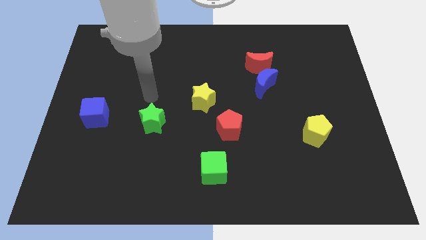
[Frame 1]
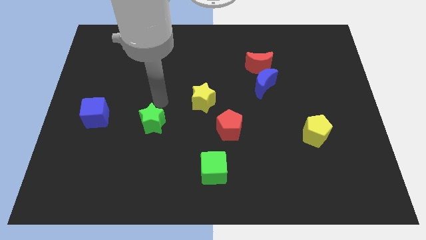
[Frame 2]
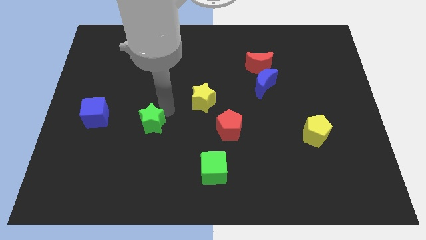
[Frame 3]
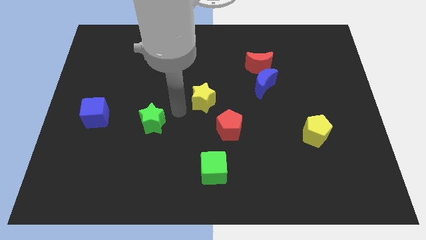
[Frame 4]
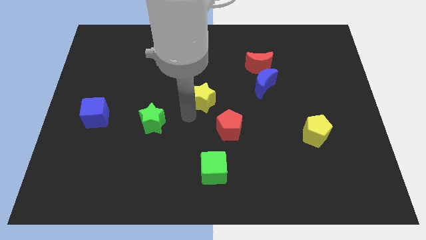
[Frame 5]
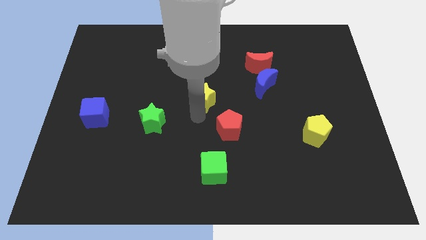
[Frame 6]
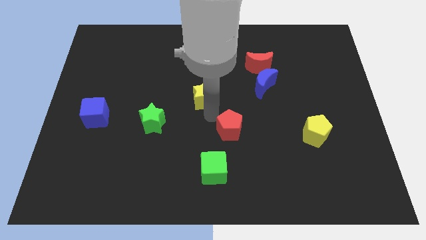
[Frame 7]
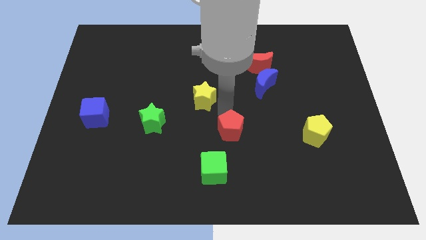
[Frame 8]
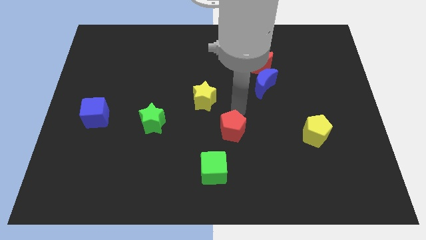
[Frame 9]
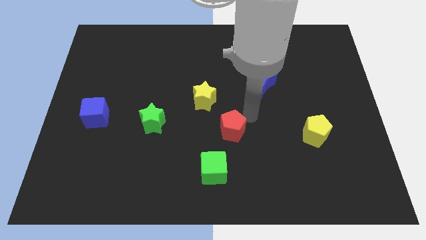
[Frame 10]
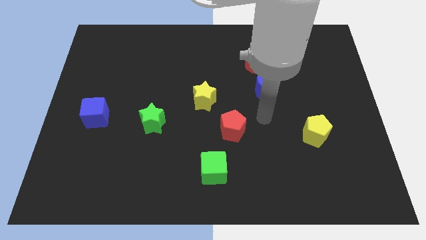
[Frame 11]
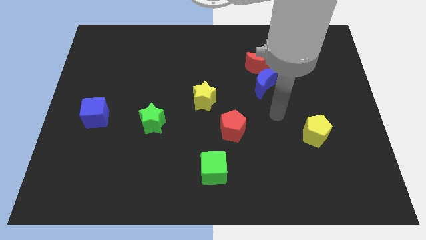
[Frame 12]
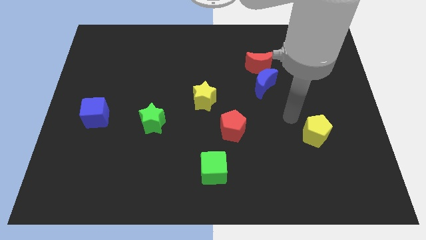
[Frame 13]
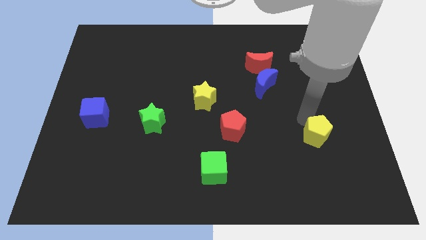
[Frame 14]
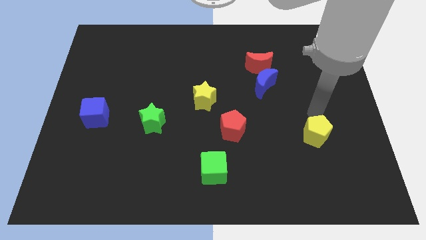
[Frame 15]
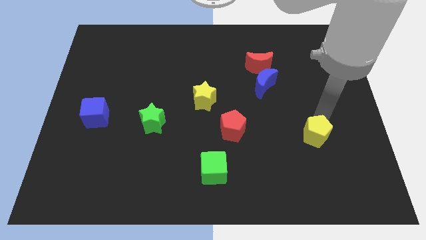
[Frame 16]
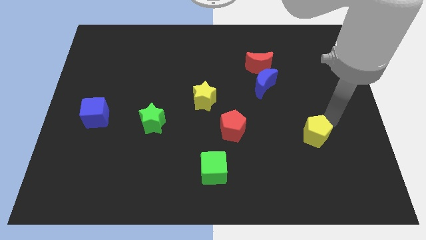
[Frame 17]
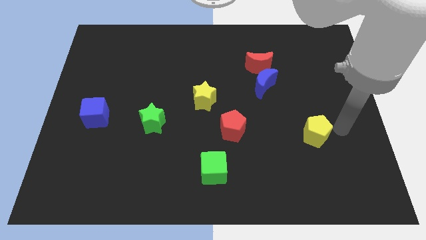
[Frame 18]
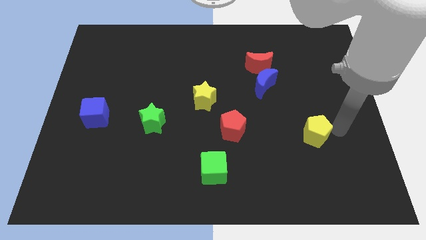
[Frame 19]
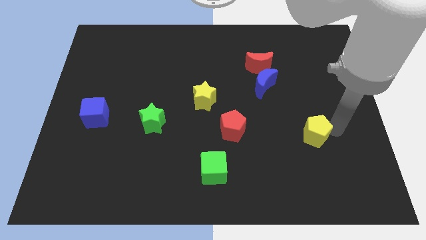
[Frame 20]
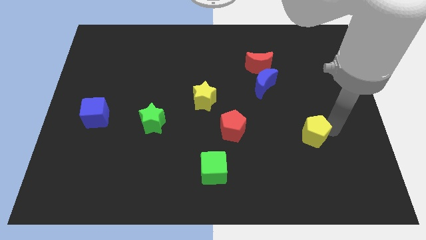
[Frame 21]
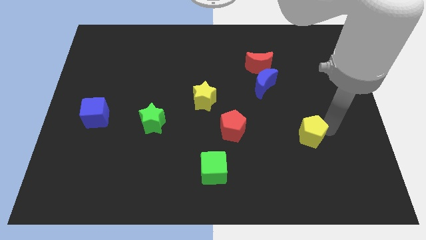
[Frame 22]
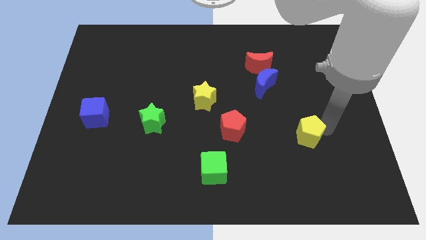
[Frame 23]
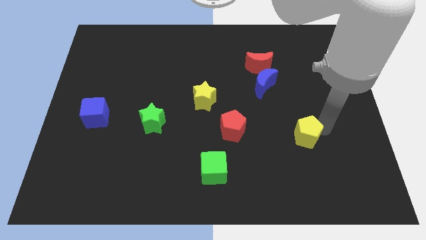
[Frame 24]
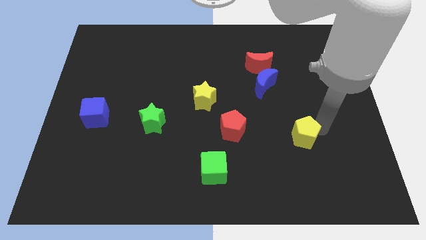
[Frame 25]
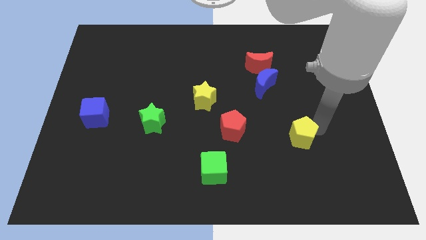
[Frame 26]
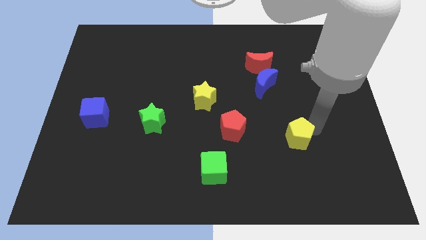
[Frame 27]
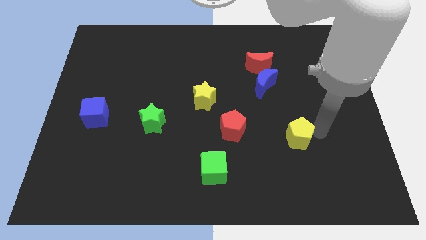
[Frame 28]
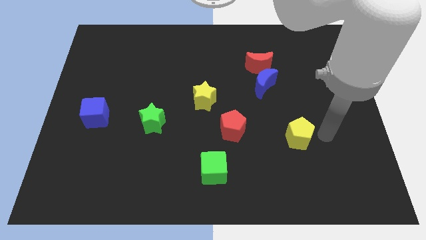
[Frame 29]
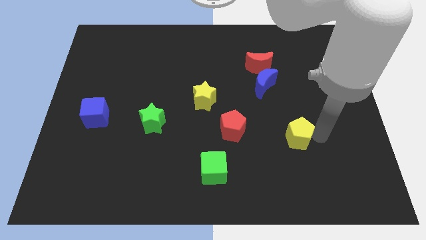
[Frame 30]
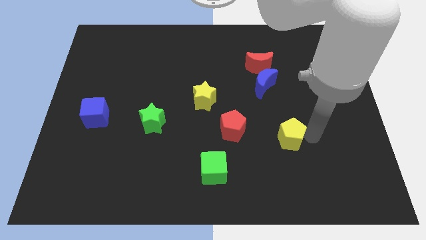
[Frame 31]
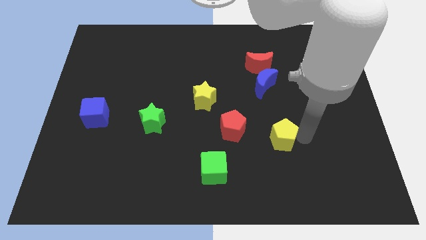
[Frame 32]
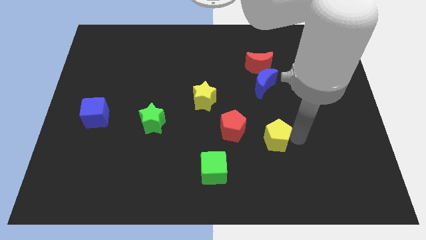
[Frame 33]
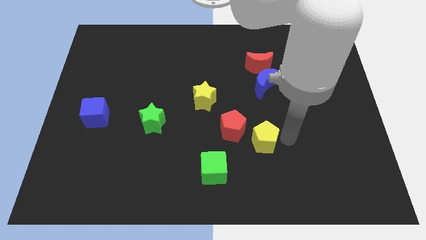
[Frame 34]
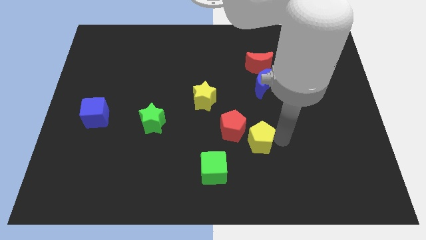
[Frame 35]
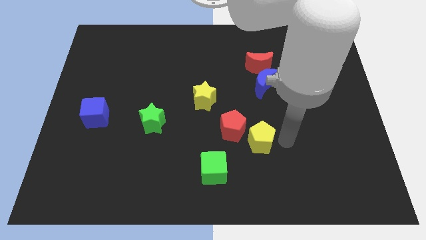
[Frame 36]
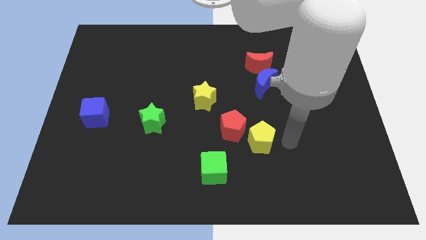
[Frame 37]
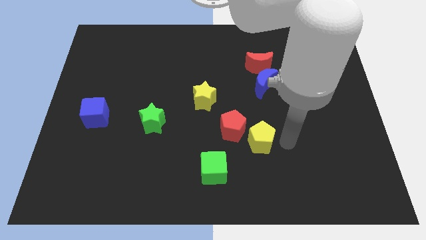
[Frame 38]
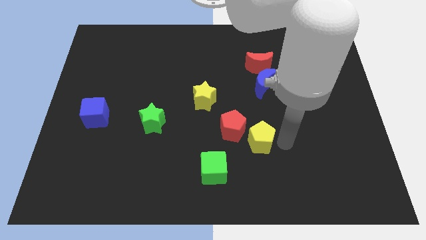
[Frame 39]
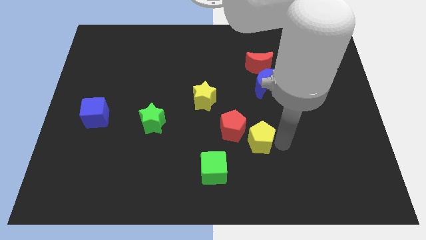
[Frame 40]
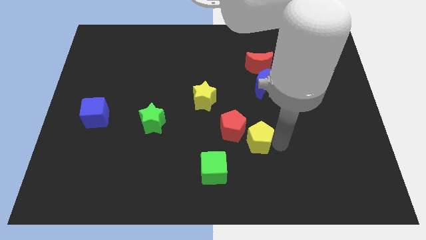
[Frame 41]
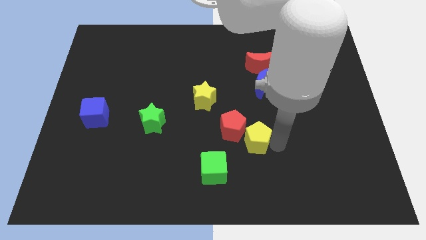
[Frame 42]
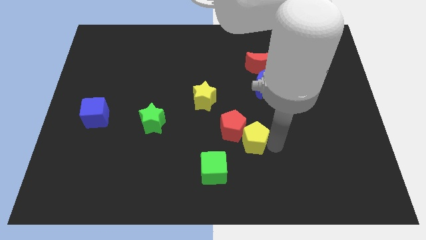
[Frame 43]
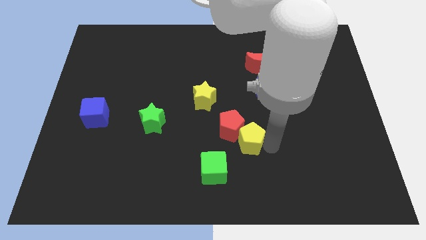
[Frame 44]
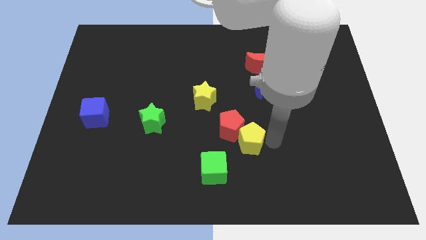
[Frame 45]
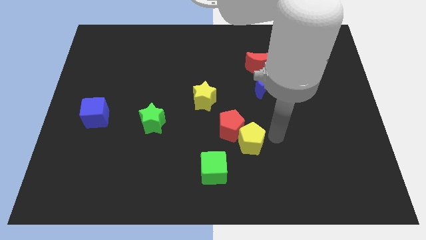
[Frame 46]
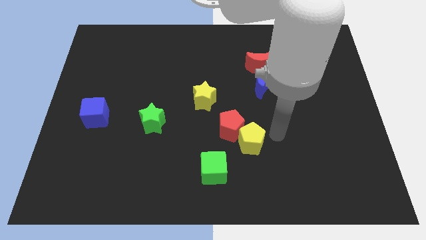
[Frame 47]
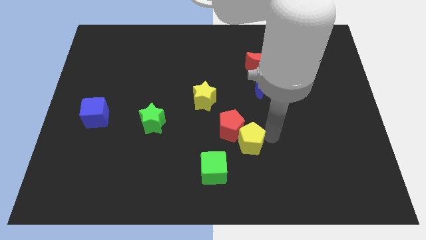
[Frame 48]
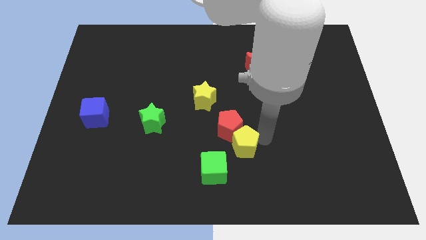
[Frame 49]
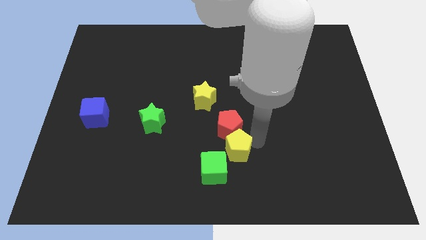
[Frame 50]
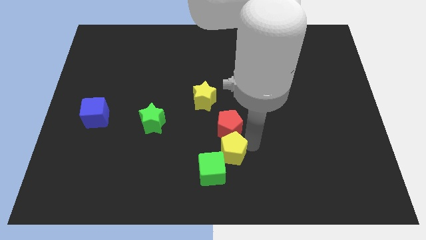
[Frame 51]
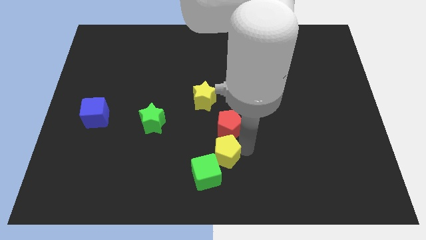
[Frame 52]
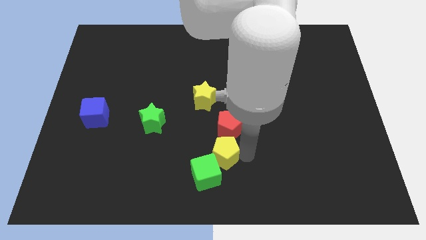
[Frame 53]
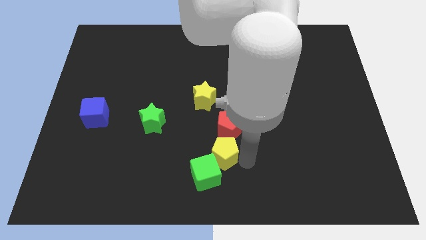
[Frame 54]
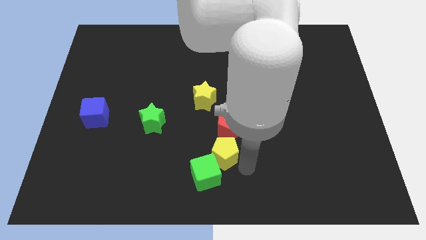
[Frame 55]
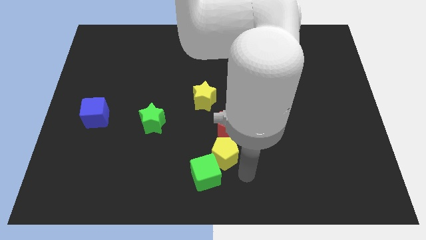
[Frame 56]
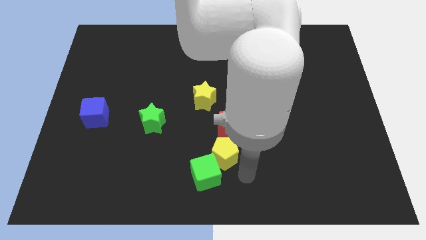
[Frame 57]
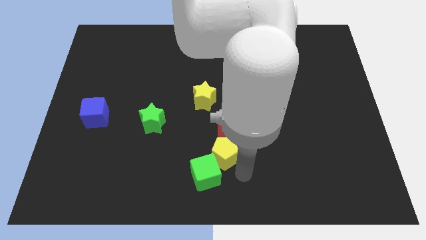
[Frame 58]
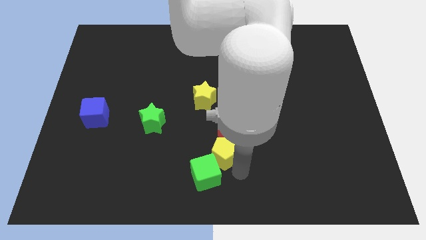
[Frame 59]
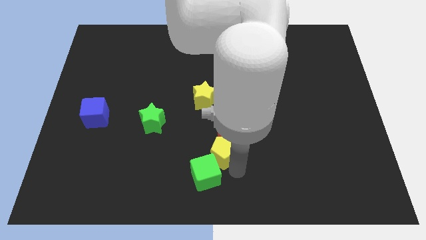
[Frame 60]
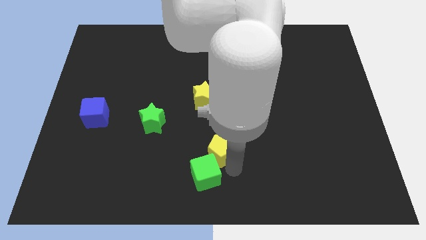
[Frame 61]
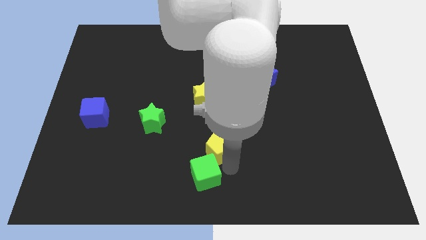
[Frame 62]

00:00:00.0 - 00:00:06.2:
push the yellow pentagon to the bottom of the yellow star

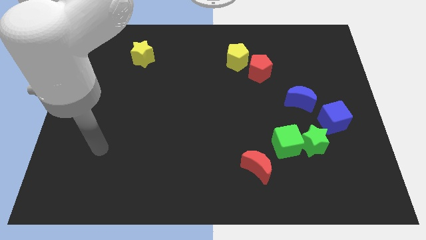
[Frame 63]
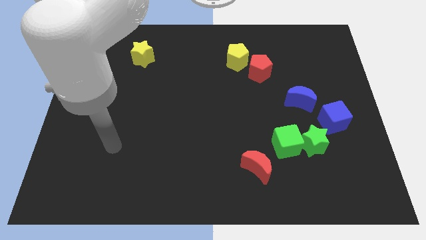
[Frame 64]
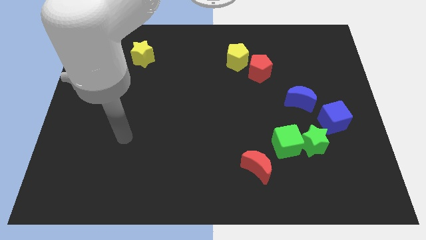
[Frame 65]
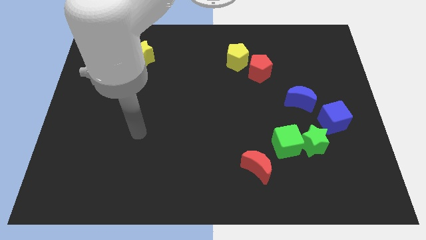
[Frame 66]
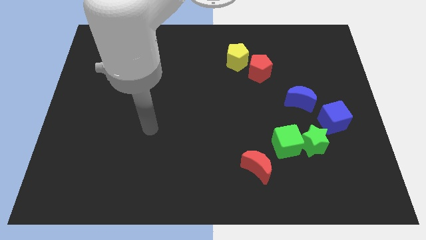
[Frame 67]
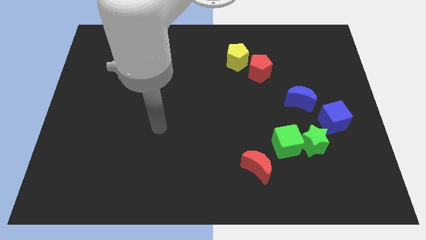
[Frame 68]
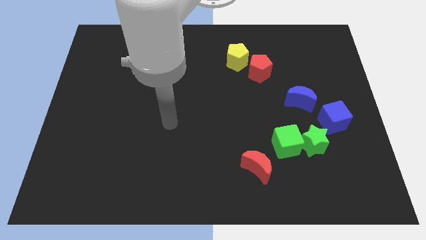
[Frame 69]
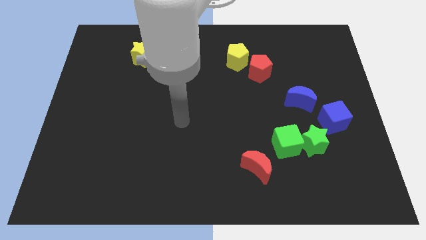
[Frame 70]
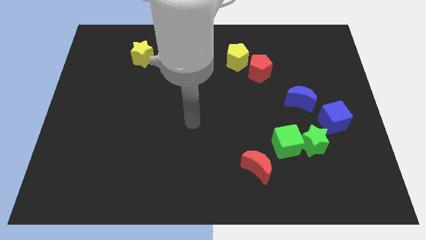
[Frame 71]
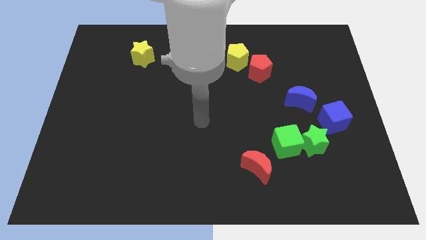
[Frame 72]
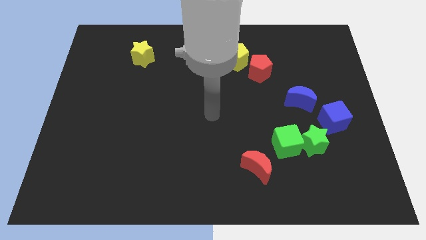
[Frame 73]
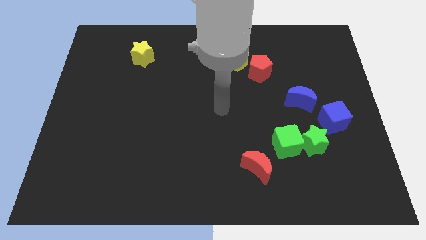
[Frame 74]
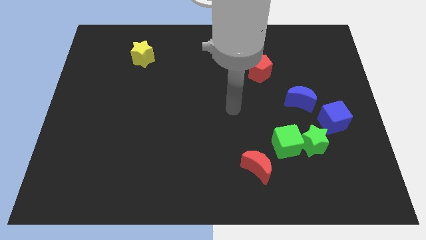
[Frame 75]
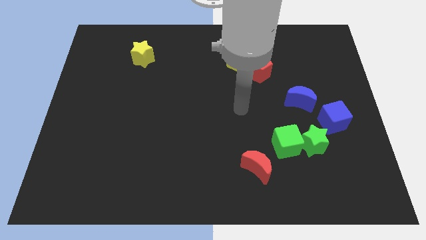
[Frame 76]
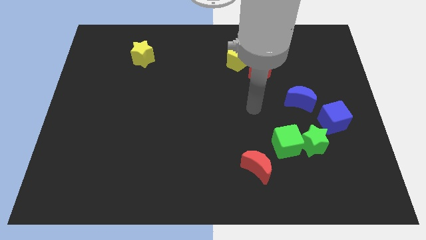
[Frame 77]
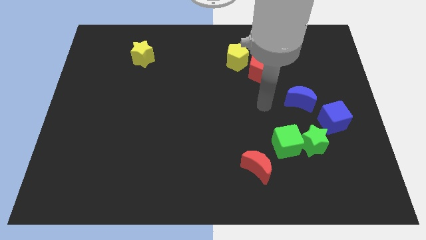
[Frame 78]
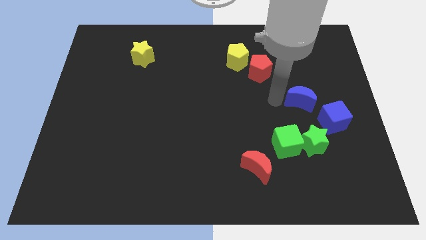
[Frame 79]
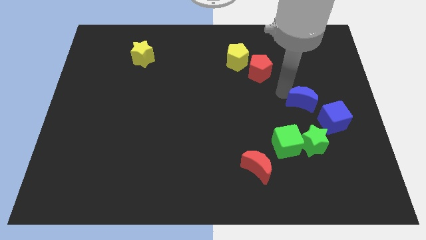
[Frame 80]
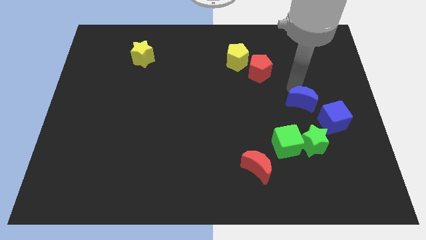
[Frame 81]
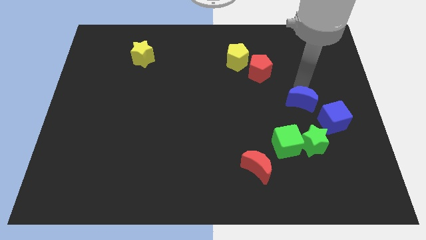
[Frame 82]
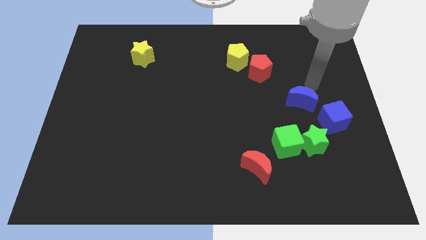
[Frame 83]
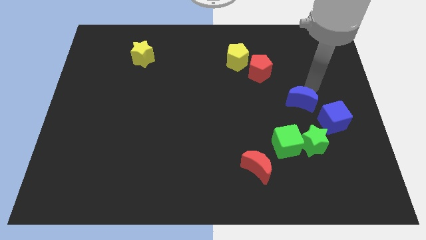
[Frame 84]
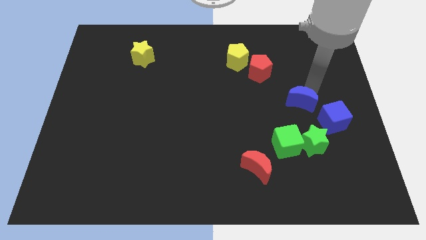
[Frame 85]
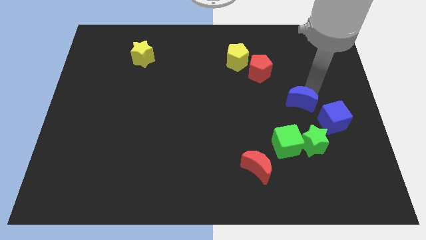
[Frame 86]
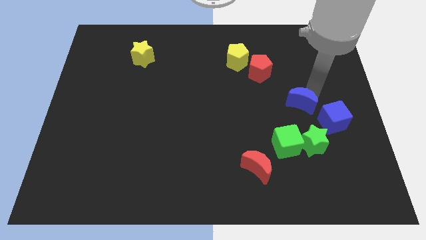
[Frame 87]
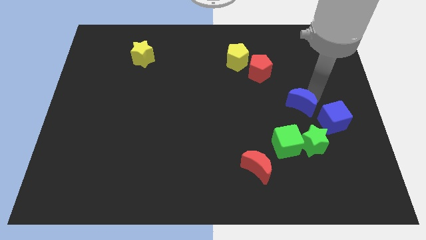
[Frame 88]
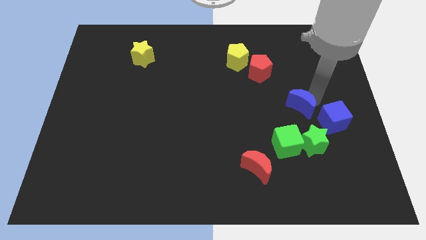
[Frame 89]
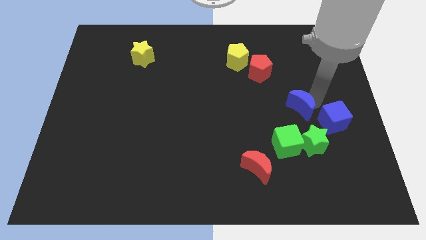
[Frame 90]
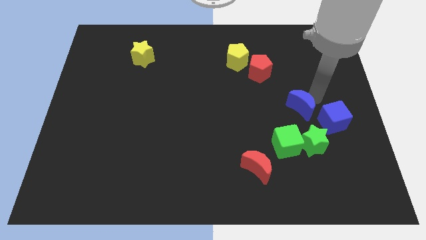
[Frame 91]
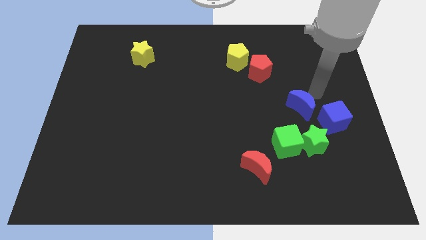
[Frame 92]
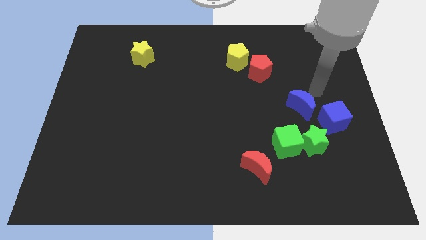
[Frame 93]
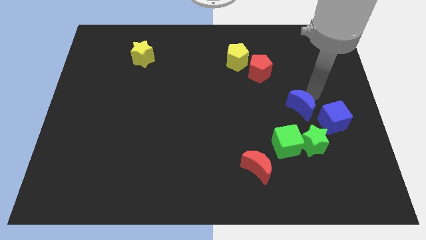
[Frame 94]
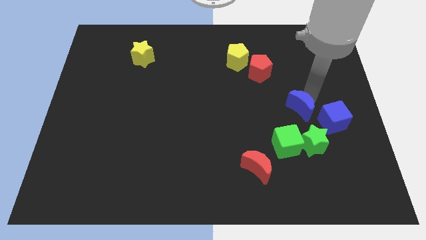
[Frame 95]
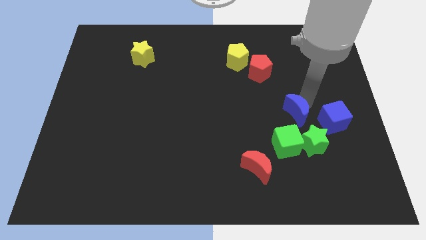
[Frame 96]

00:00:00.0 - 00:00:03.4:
push the blue moon to the top left side of the green star
